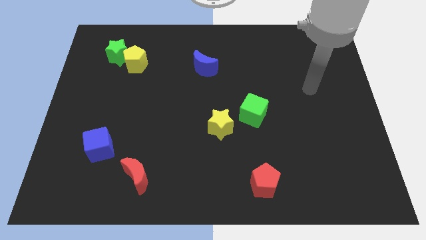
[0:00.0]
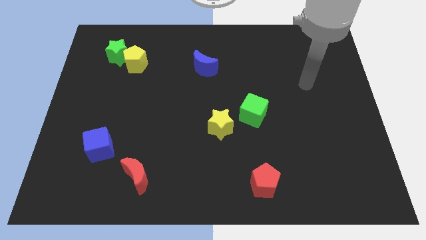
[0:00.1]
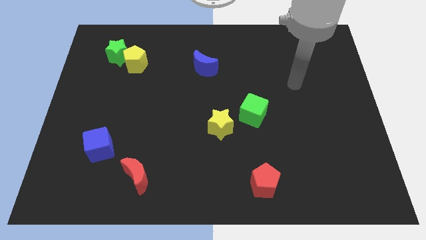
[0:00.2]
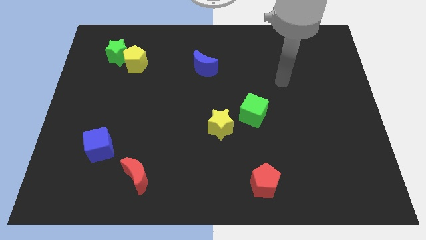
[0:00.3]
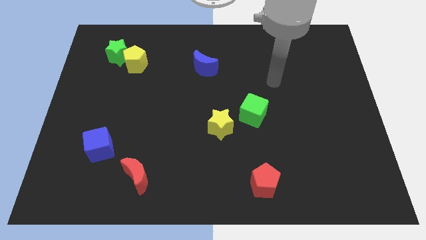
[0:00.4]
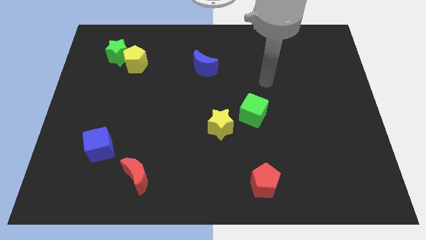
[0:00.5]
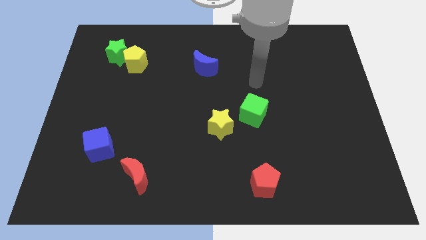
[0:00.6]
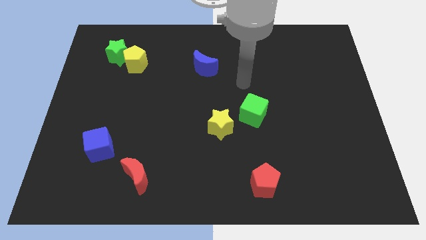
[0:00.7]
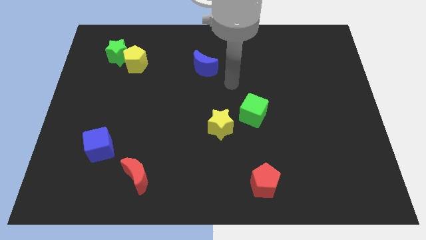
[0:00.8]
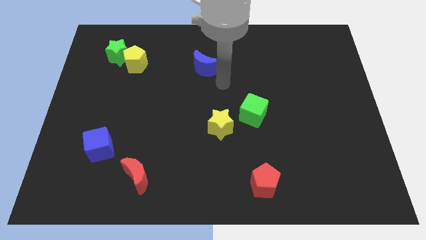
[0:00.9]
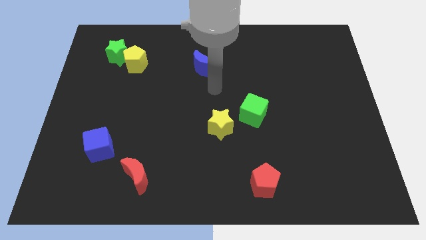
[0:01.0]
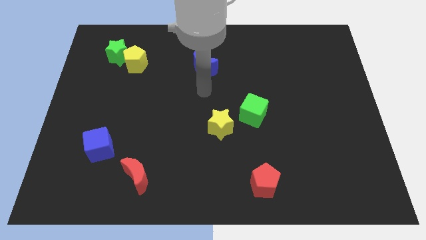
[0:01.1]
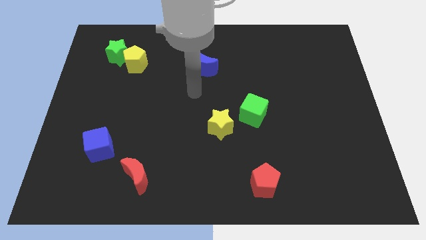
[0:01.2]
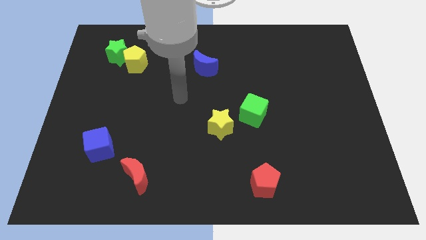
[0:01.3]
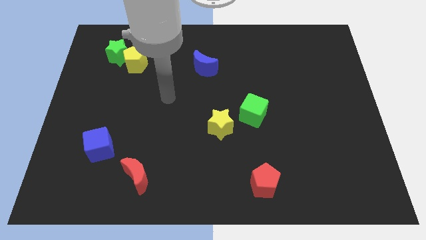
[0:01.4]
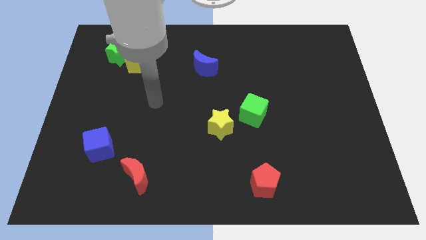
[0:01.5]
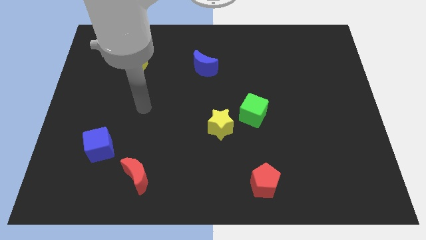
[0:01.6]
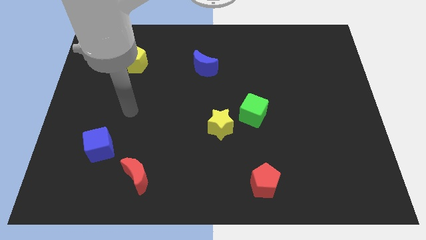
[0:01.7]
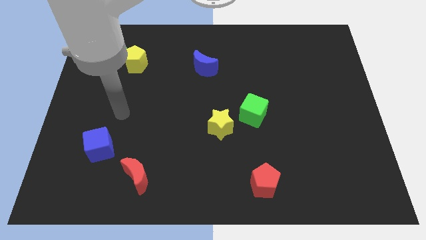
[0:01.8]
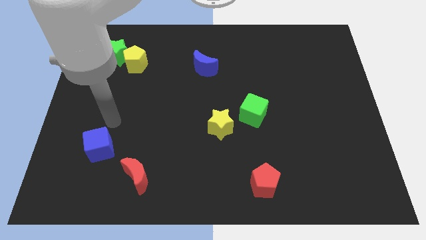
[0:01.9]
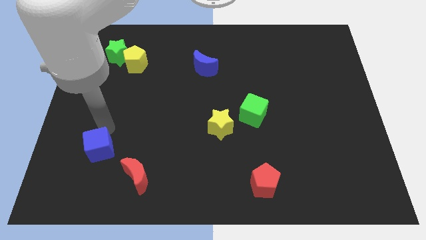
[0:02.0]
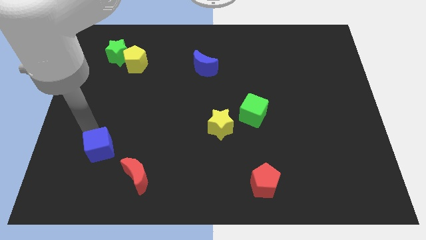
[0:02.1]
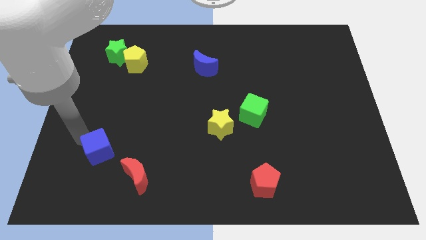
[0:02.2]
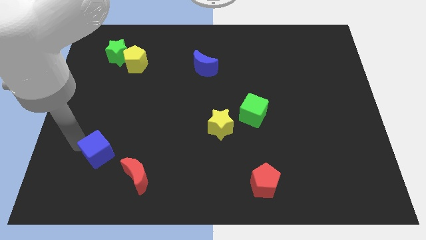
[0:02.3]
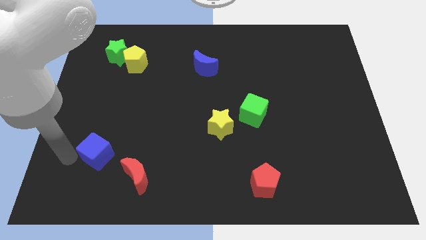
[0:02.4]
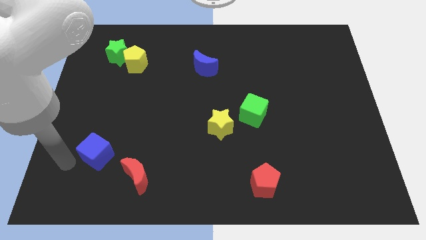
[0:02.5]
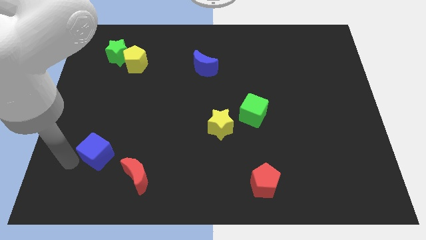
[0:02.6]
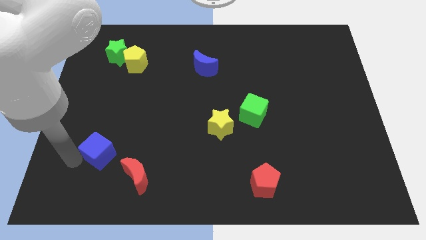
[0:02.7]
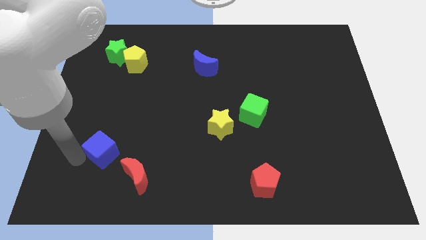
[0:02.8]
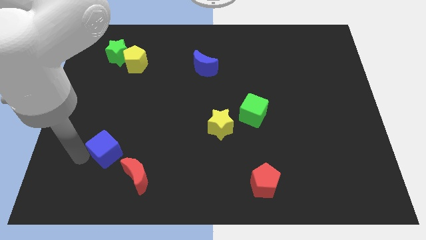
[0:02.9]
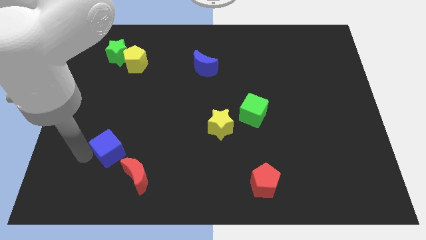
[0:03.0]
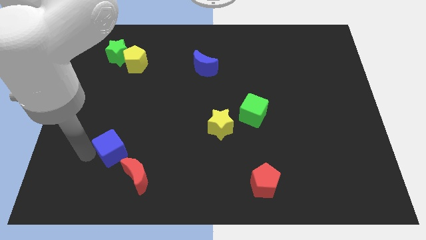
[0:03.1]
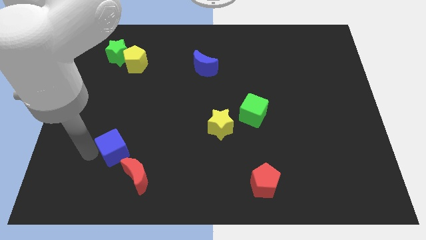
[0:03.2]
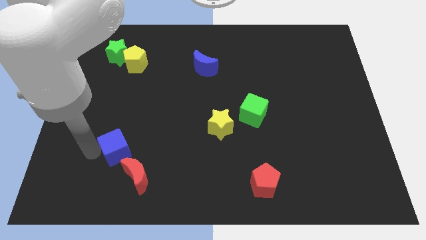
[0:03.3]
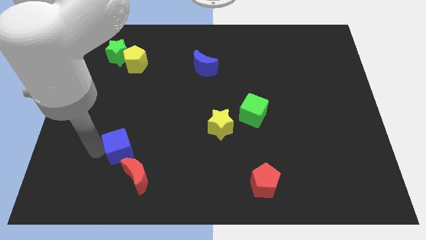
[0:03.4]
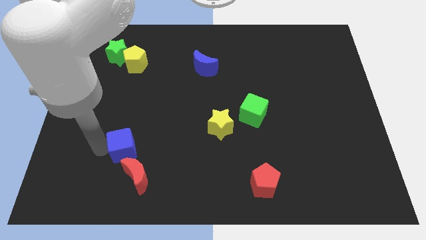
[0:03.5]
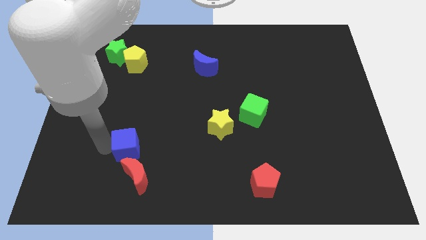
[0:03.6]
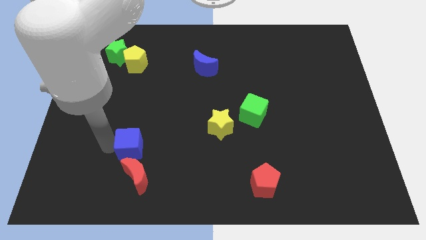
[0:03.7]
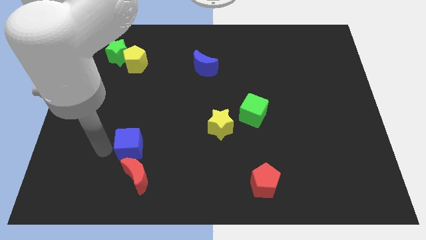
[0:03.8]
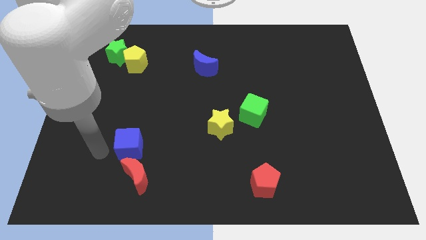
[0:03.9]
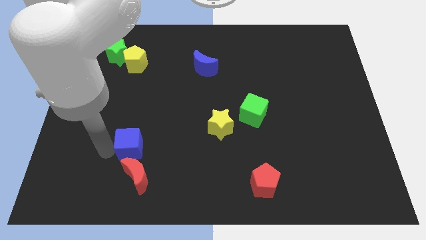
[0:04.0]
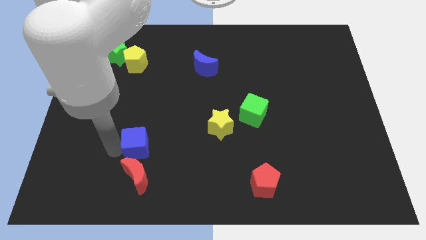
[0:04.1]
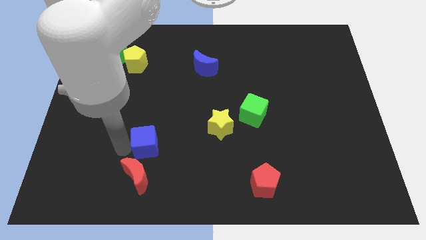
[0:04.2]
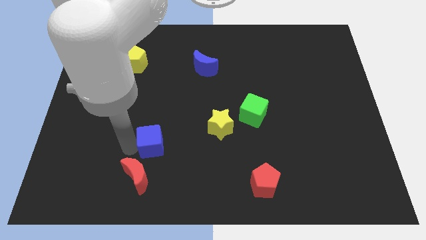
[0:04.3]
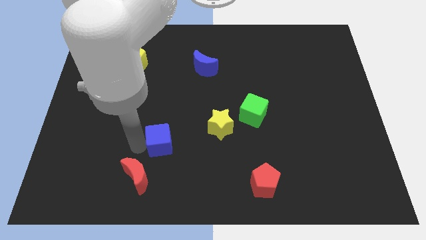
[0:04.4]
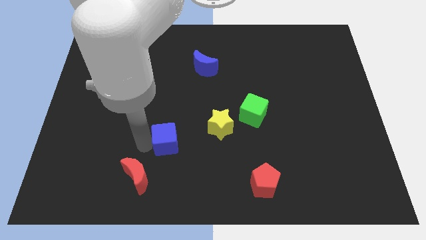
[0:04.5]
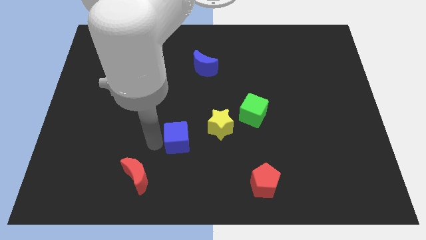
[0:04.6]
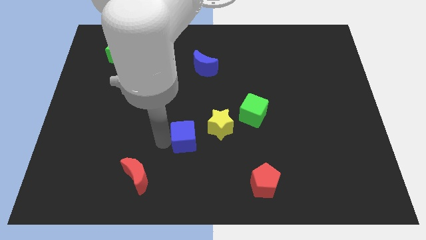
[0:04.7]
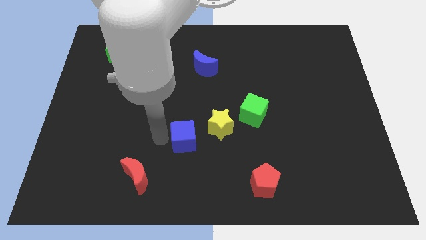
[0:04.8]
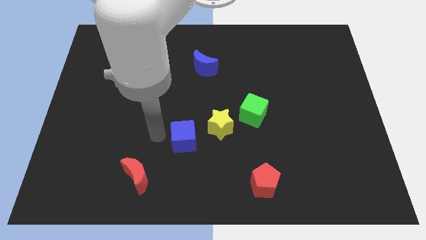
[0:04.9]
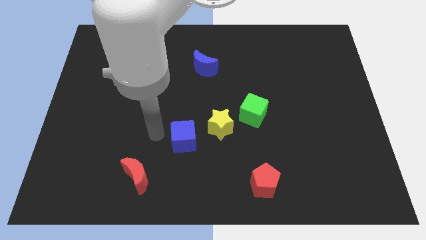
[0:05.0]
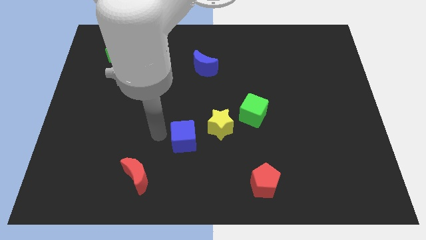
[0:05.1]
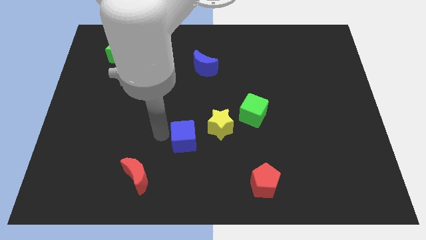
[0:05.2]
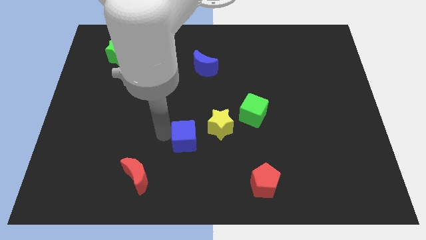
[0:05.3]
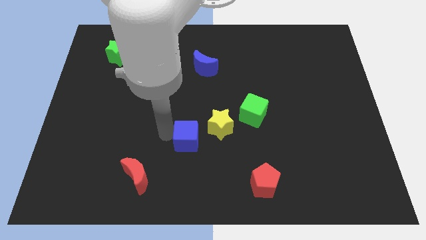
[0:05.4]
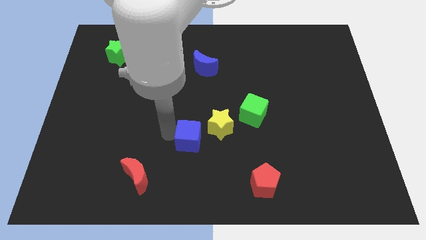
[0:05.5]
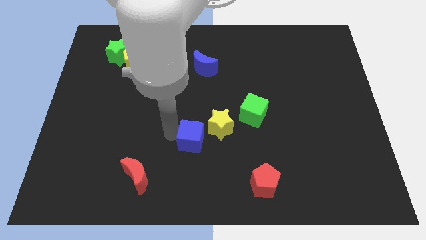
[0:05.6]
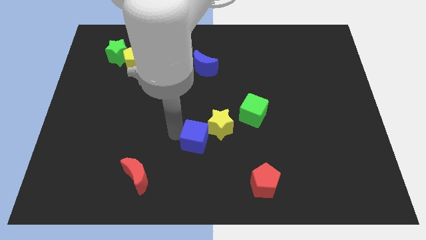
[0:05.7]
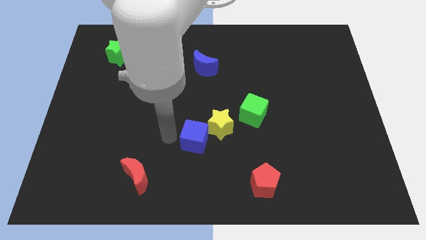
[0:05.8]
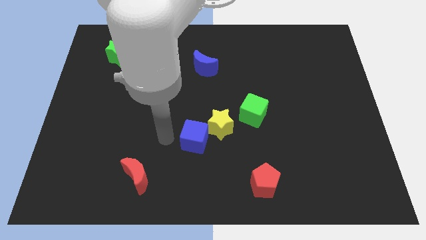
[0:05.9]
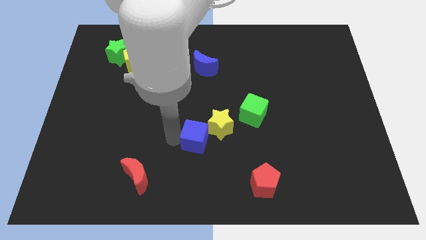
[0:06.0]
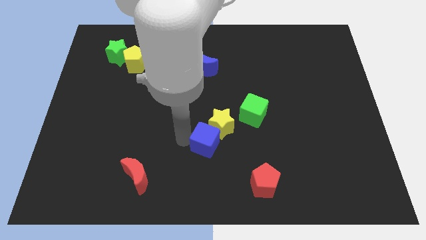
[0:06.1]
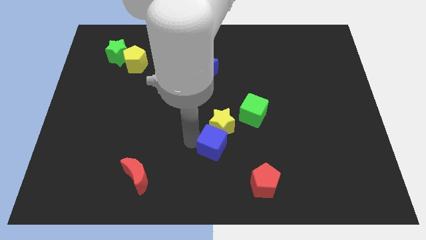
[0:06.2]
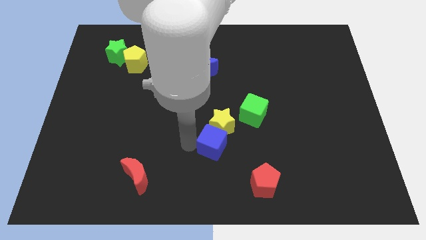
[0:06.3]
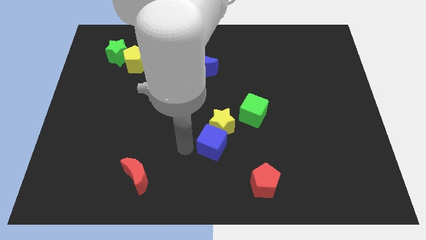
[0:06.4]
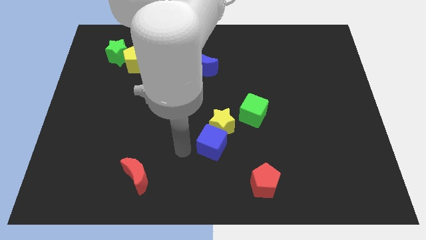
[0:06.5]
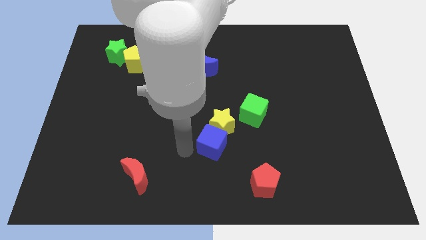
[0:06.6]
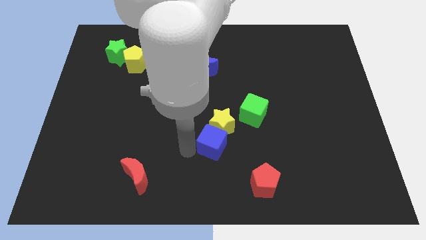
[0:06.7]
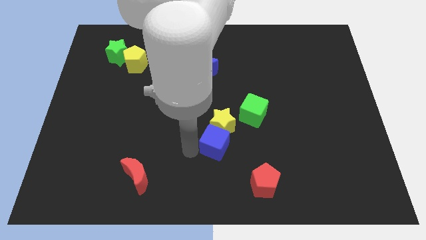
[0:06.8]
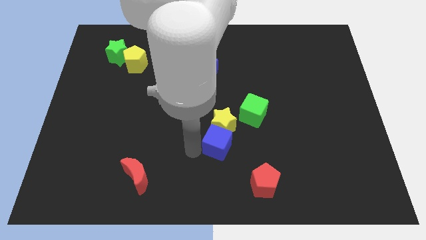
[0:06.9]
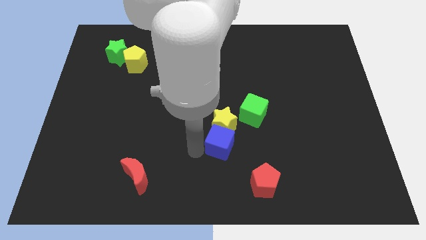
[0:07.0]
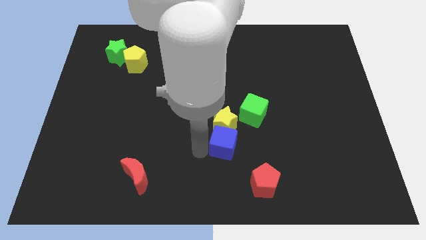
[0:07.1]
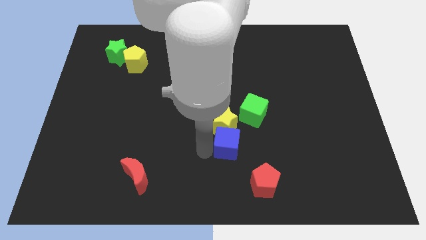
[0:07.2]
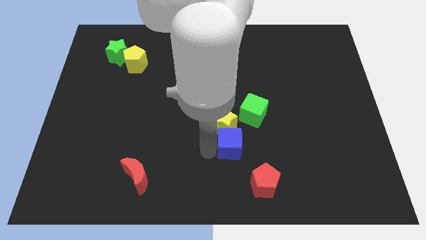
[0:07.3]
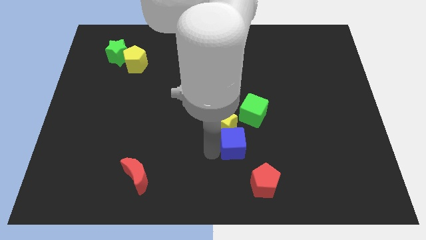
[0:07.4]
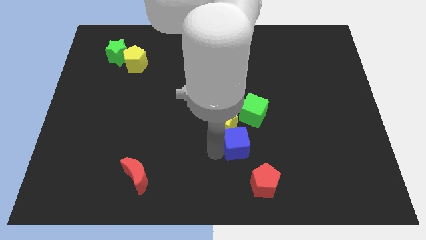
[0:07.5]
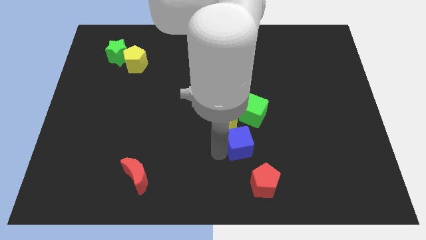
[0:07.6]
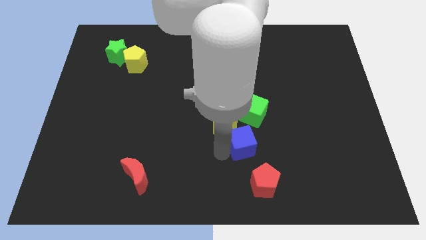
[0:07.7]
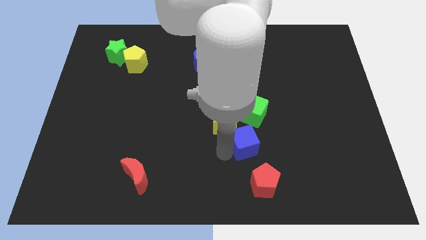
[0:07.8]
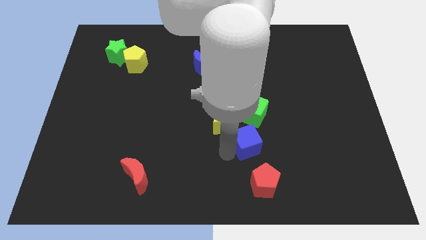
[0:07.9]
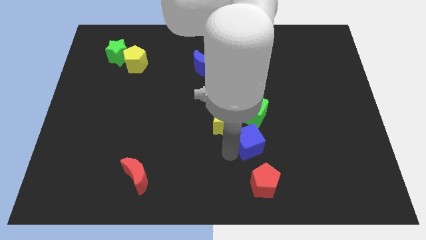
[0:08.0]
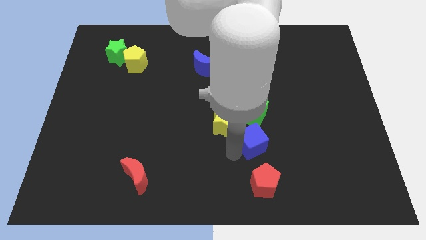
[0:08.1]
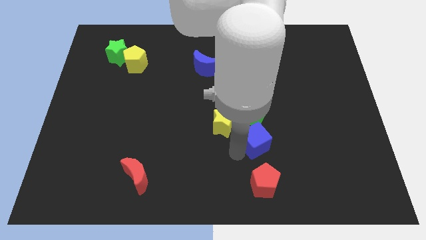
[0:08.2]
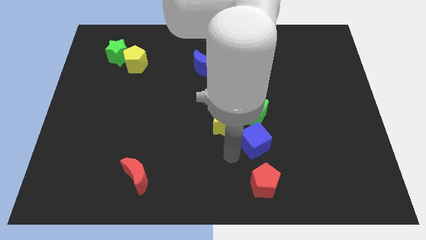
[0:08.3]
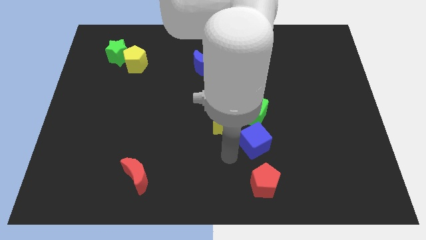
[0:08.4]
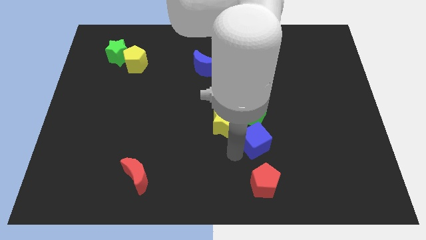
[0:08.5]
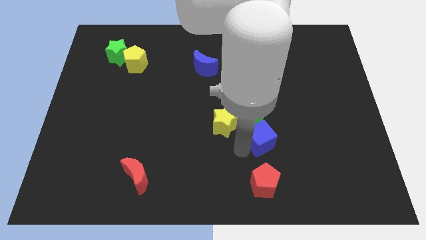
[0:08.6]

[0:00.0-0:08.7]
move the blue cube to the bottom right of the green cube
